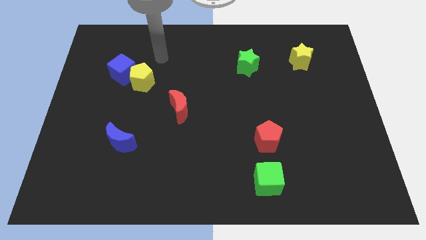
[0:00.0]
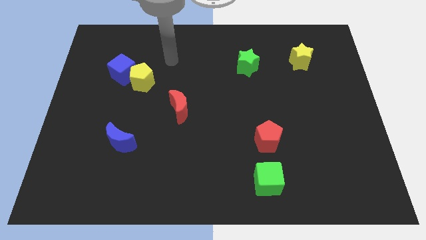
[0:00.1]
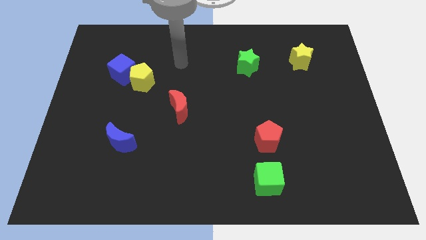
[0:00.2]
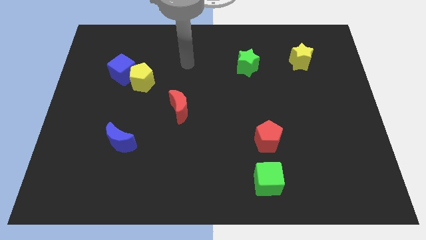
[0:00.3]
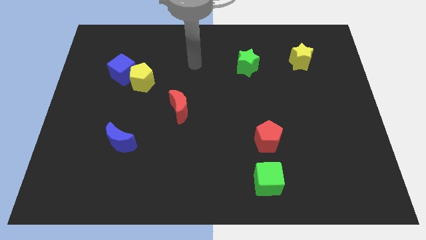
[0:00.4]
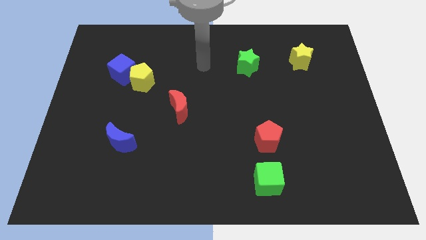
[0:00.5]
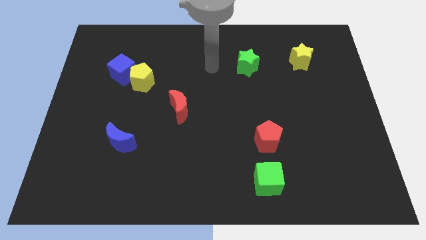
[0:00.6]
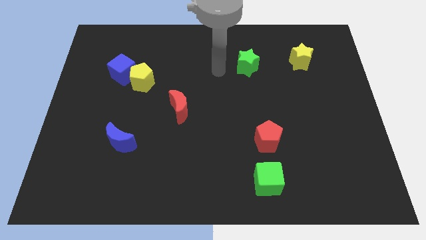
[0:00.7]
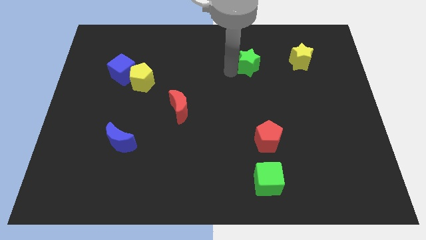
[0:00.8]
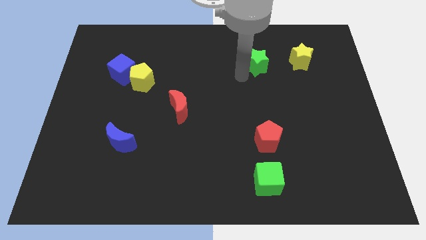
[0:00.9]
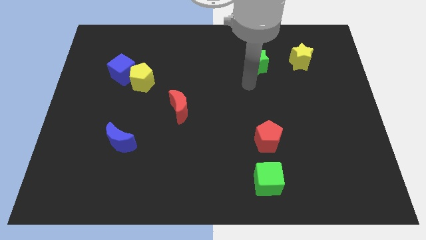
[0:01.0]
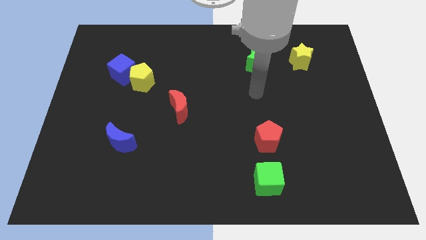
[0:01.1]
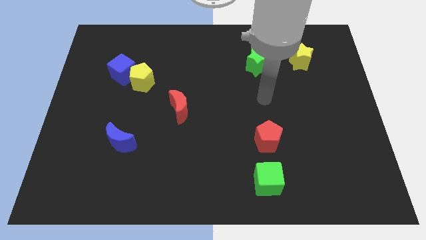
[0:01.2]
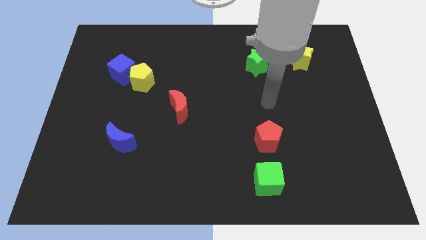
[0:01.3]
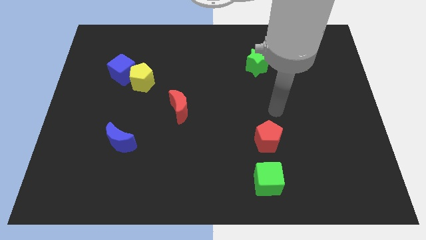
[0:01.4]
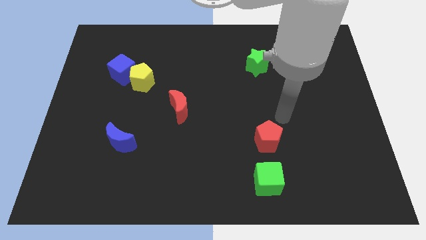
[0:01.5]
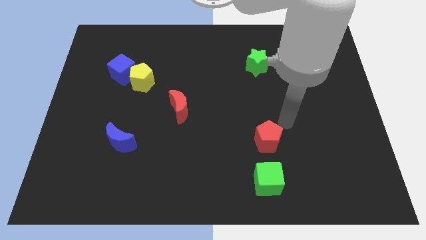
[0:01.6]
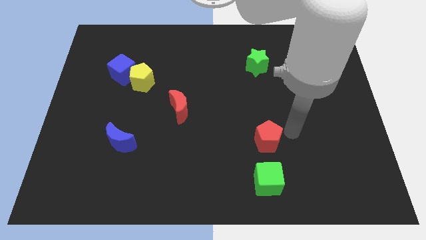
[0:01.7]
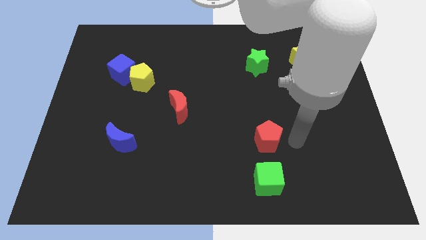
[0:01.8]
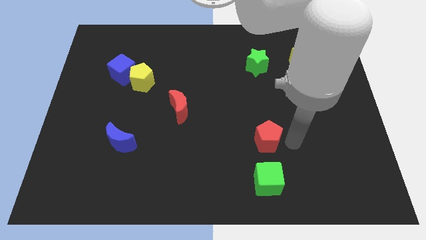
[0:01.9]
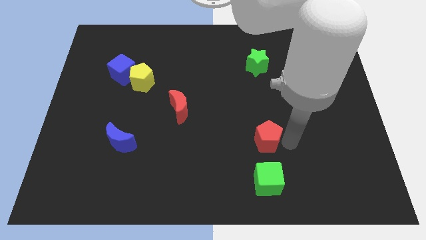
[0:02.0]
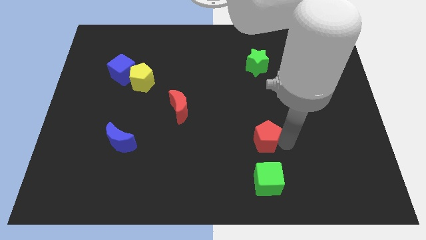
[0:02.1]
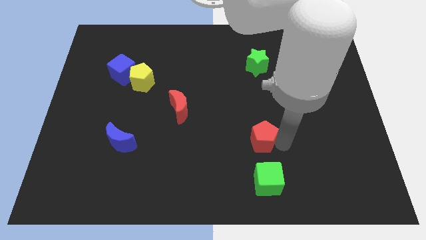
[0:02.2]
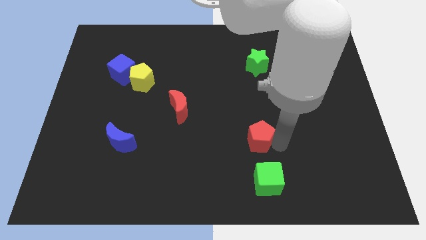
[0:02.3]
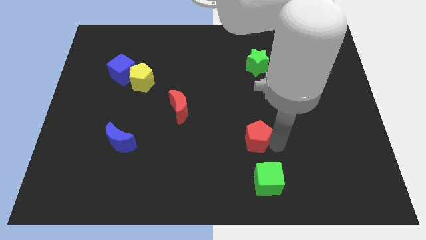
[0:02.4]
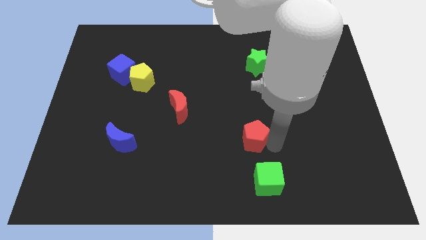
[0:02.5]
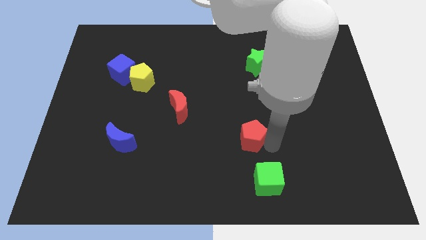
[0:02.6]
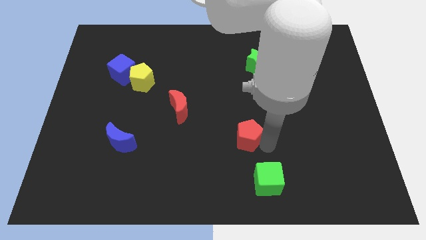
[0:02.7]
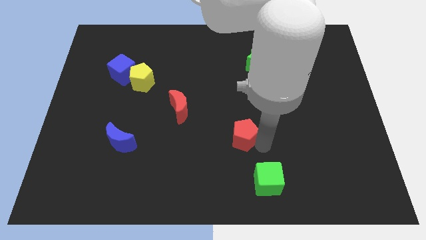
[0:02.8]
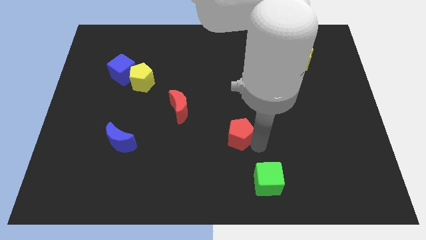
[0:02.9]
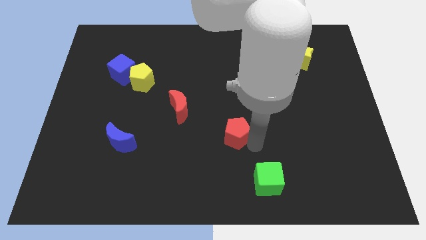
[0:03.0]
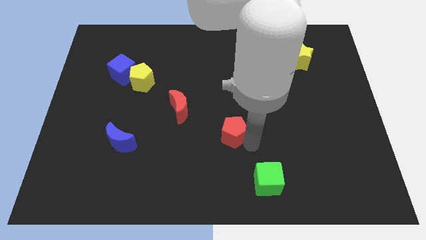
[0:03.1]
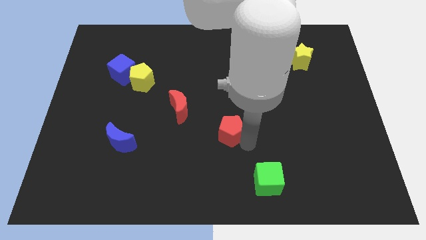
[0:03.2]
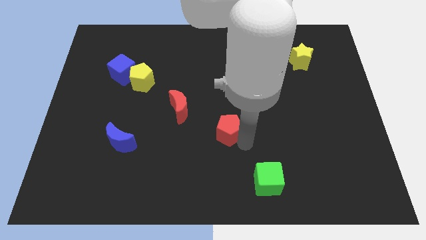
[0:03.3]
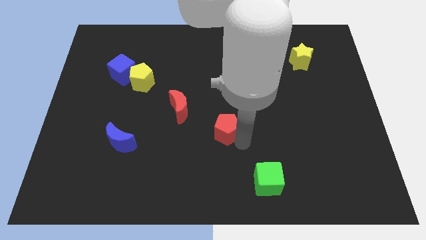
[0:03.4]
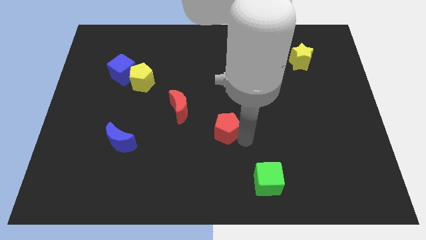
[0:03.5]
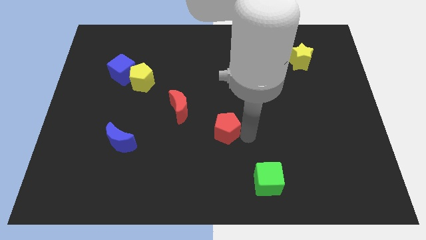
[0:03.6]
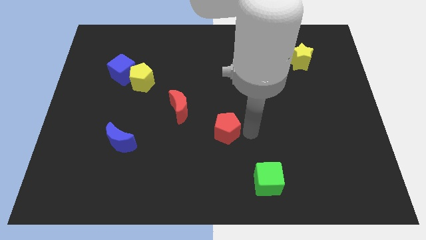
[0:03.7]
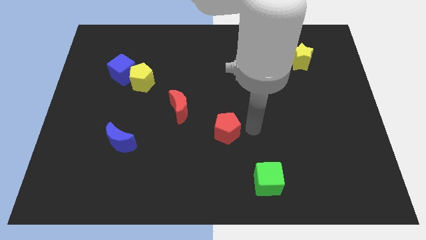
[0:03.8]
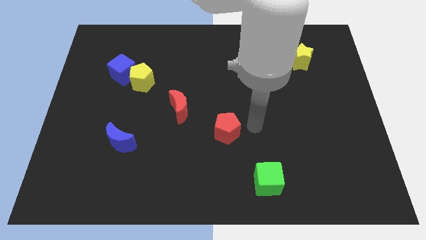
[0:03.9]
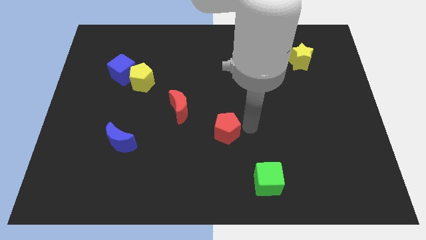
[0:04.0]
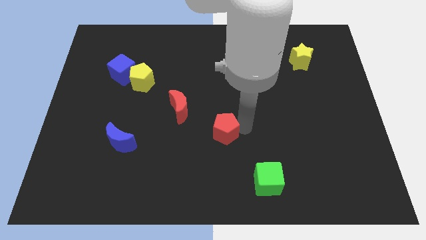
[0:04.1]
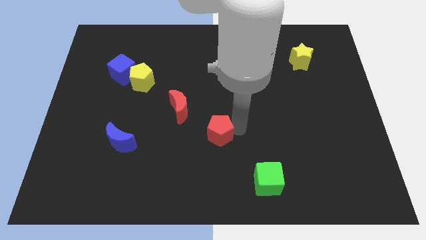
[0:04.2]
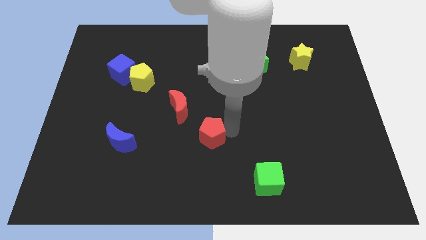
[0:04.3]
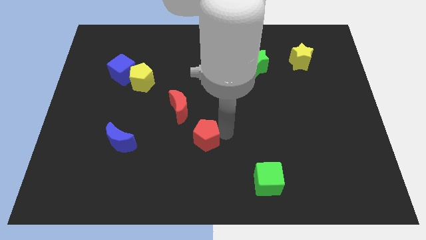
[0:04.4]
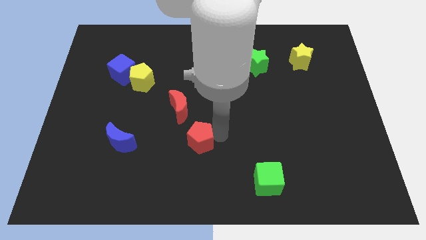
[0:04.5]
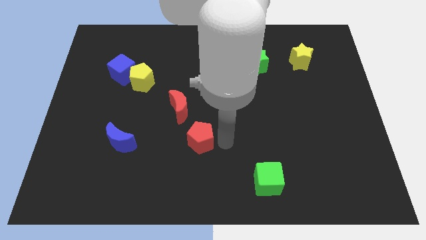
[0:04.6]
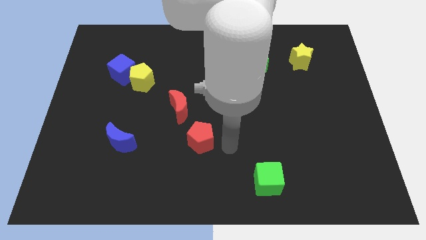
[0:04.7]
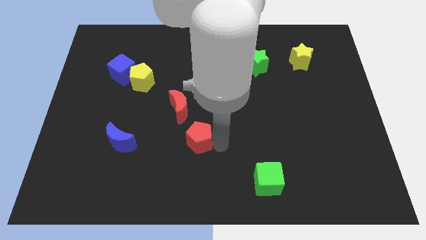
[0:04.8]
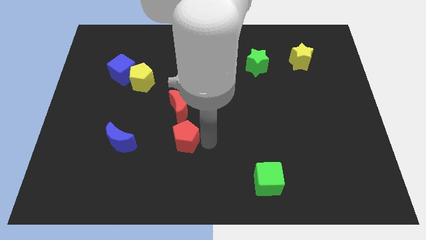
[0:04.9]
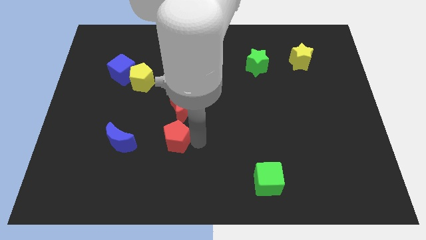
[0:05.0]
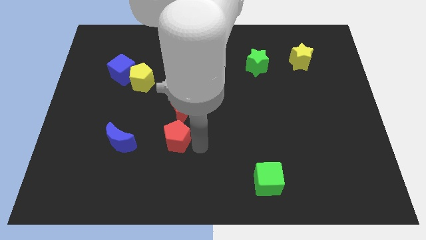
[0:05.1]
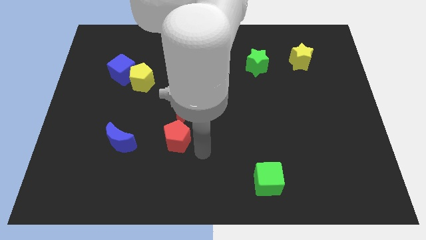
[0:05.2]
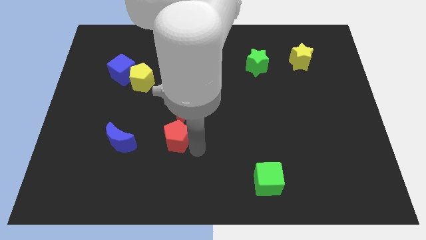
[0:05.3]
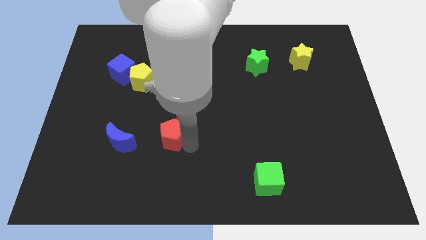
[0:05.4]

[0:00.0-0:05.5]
put the red pentagon diagonally down and to the left of the red moon

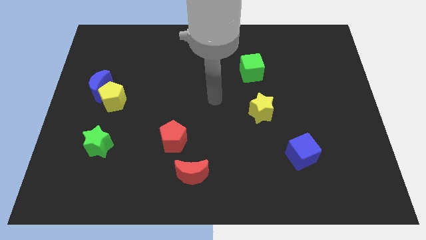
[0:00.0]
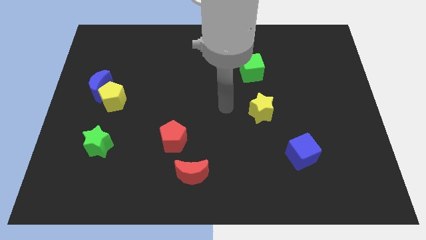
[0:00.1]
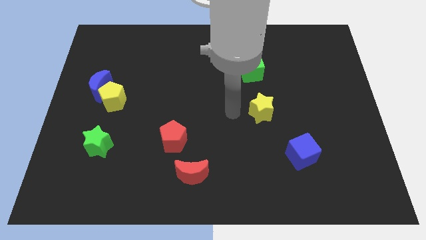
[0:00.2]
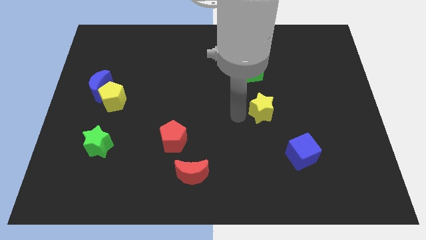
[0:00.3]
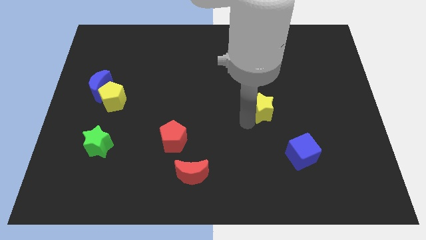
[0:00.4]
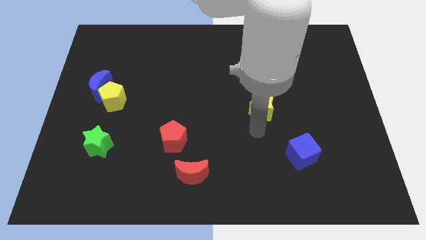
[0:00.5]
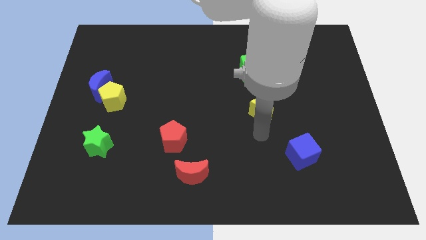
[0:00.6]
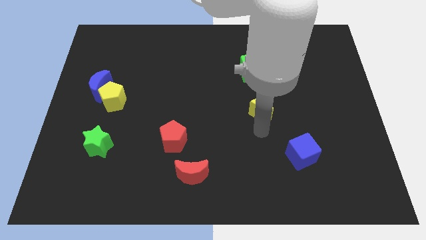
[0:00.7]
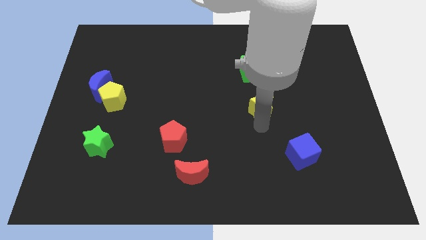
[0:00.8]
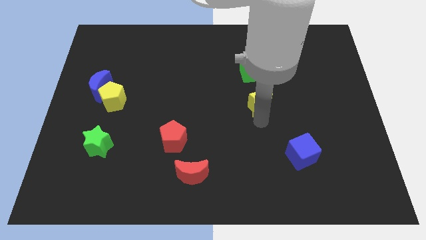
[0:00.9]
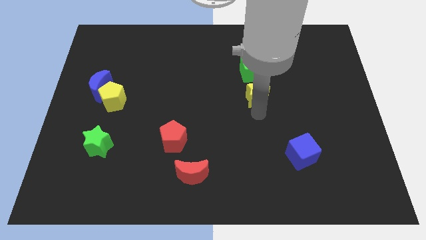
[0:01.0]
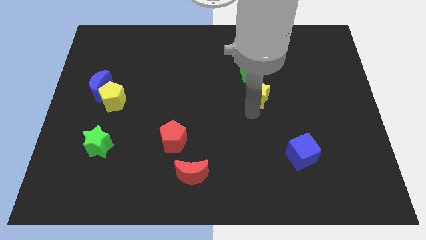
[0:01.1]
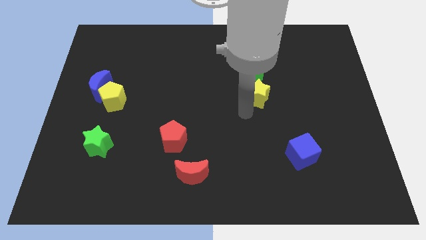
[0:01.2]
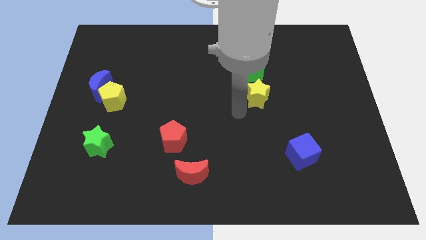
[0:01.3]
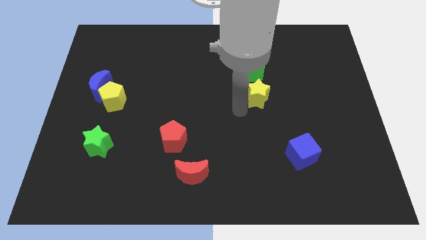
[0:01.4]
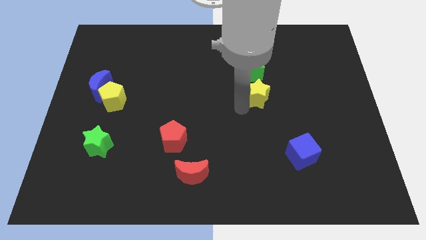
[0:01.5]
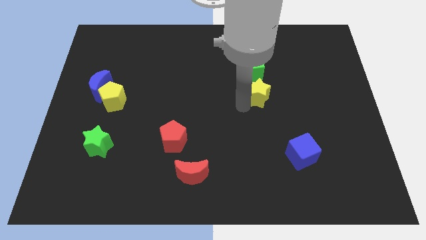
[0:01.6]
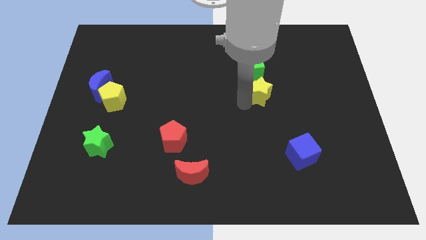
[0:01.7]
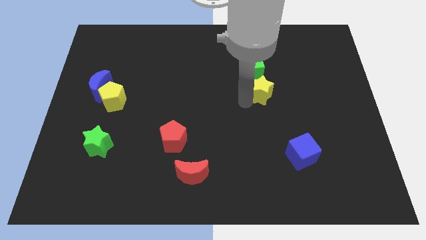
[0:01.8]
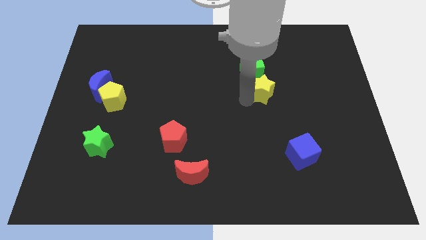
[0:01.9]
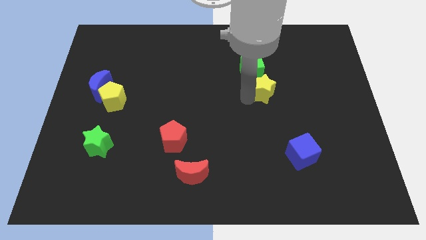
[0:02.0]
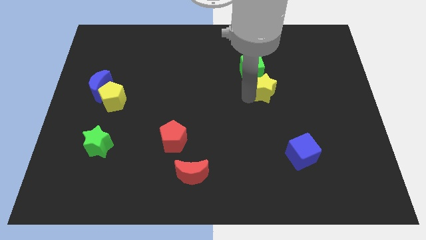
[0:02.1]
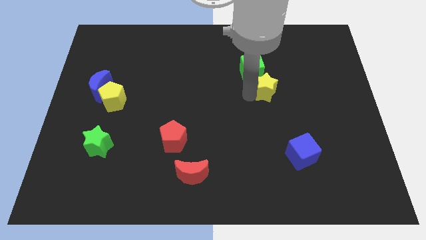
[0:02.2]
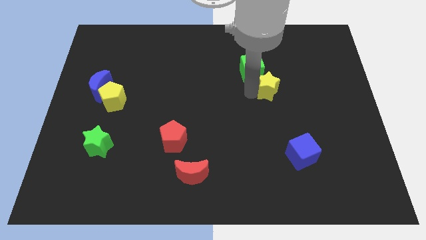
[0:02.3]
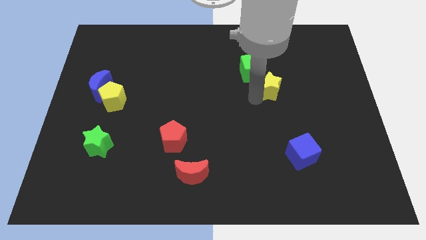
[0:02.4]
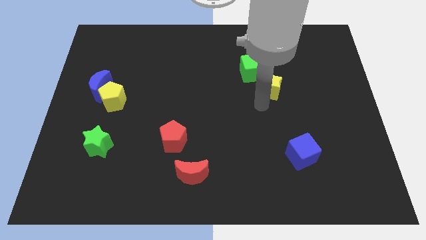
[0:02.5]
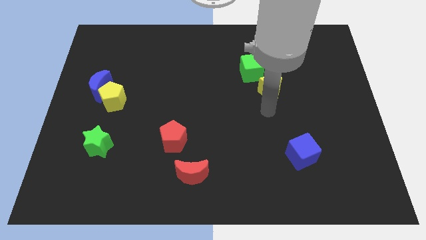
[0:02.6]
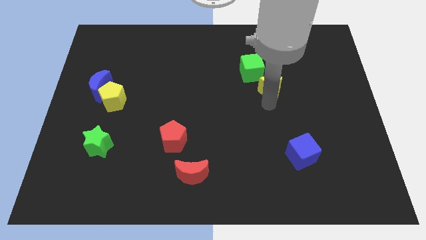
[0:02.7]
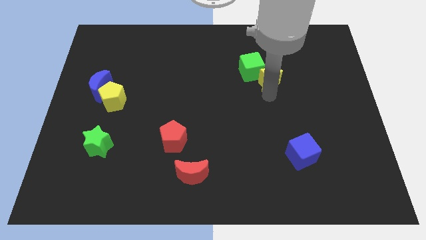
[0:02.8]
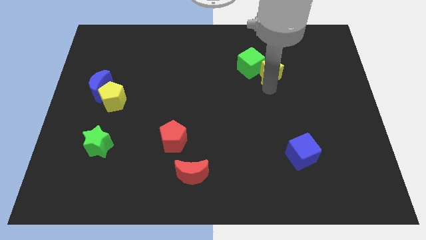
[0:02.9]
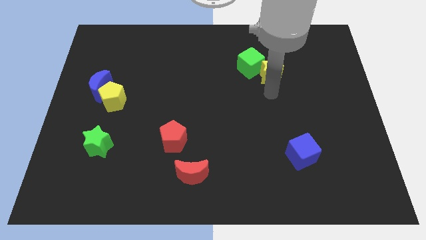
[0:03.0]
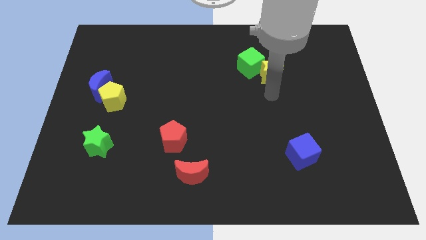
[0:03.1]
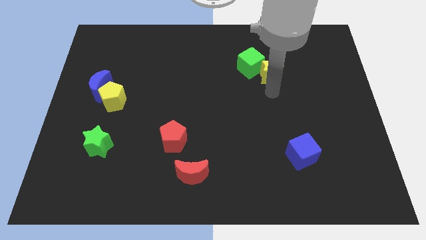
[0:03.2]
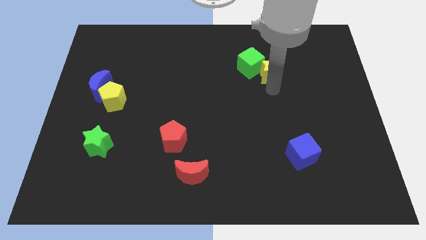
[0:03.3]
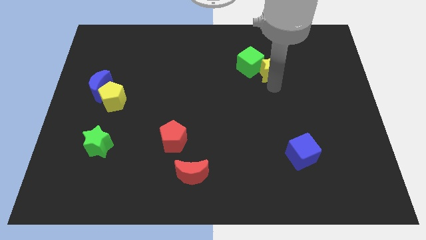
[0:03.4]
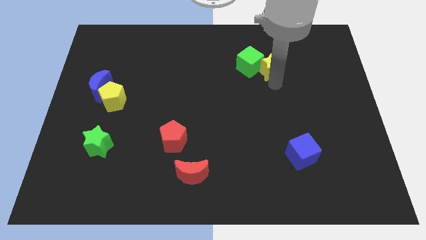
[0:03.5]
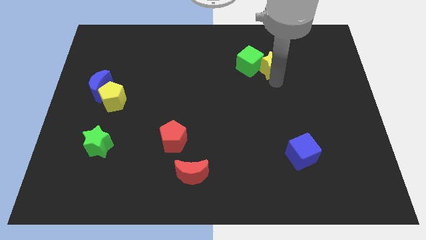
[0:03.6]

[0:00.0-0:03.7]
put the yellow star to the top right of the green cube
